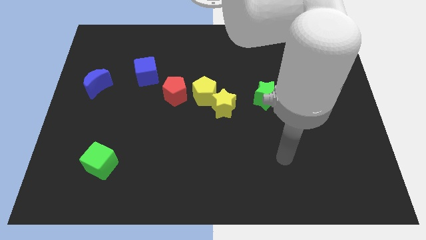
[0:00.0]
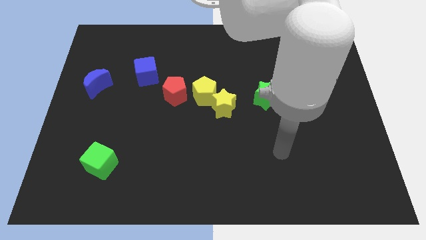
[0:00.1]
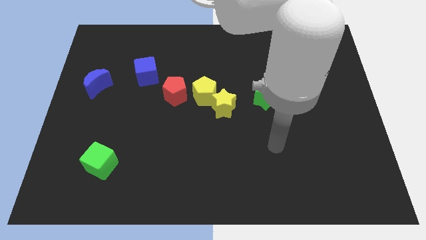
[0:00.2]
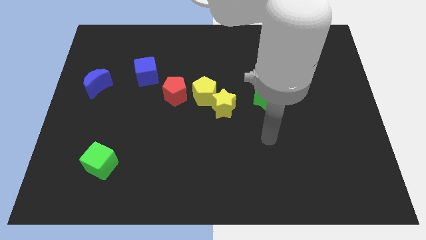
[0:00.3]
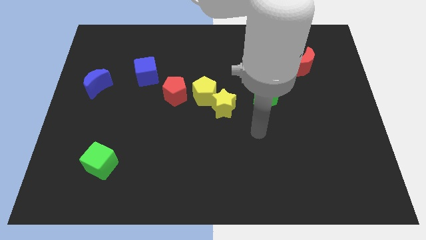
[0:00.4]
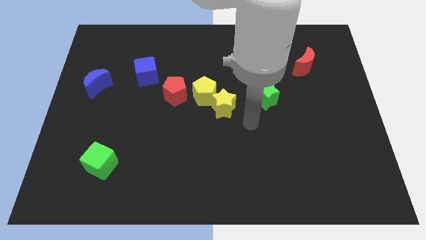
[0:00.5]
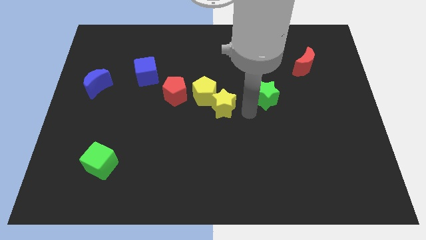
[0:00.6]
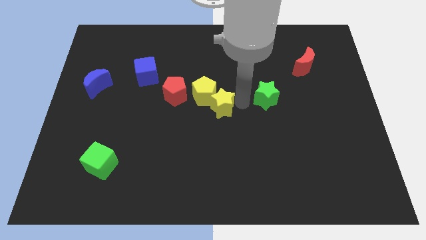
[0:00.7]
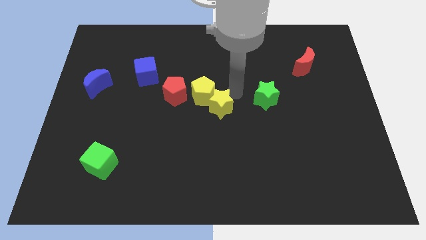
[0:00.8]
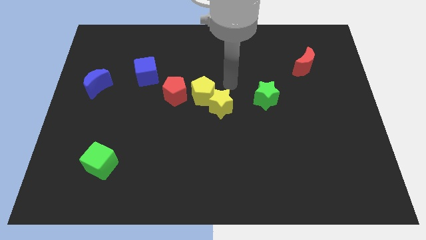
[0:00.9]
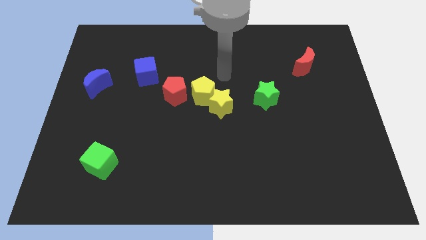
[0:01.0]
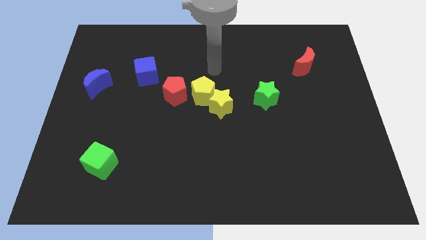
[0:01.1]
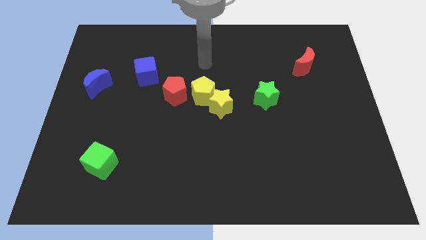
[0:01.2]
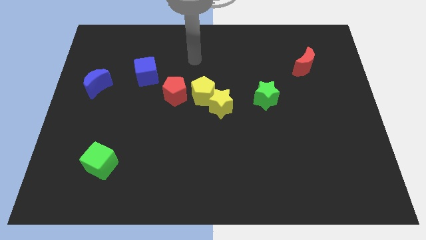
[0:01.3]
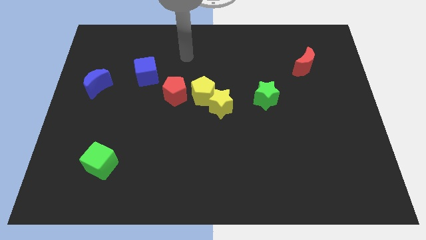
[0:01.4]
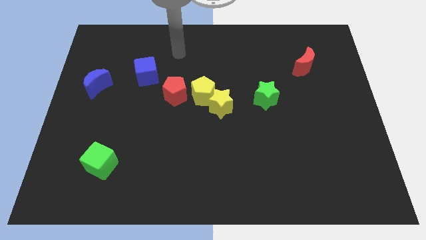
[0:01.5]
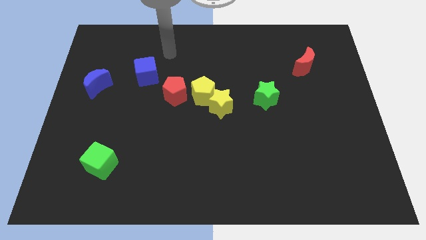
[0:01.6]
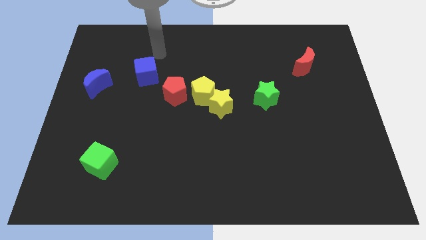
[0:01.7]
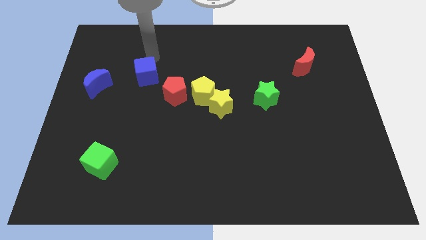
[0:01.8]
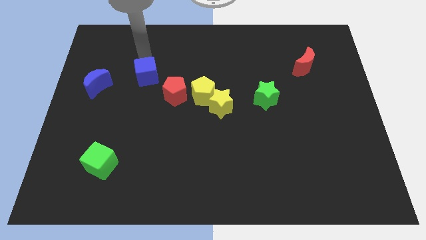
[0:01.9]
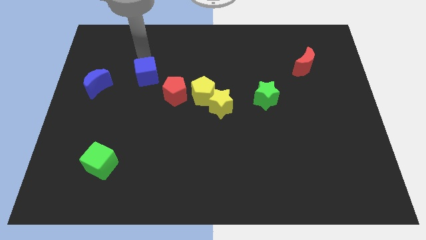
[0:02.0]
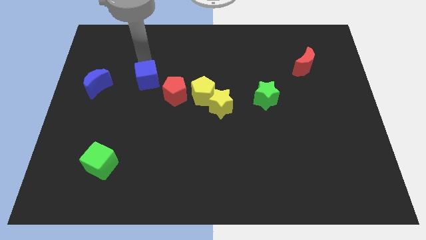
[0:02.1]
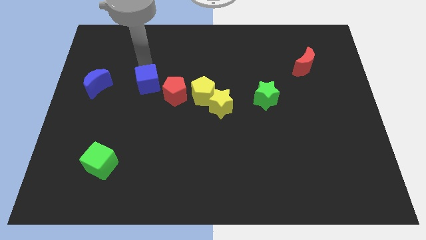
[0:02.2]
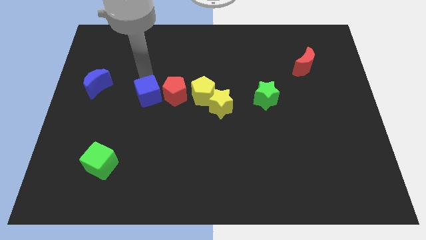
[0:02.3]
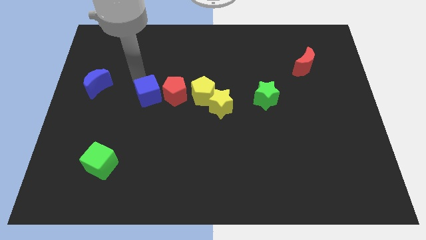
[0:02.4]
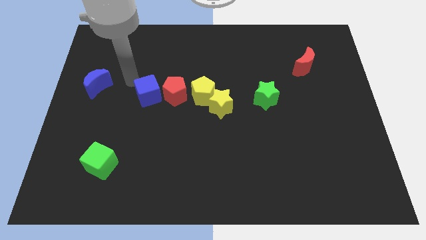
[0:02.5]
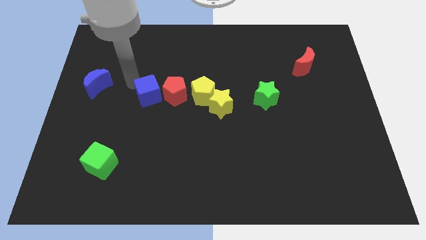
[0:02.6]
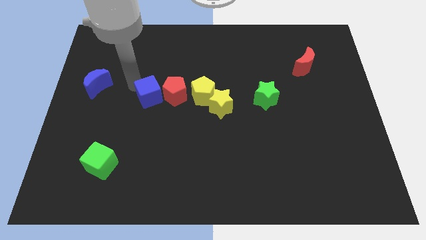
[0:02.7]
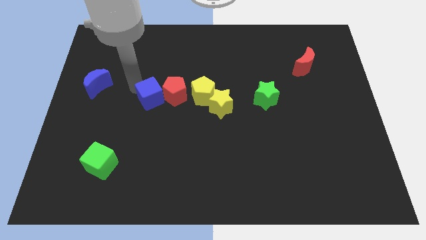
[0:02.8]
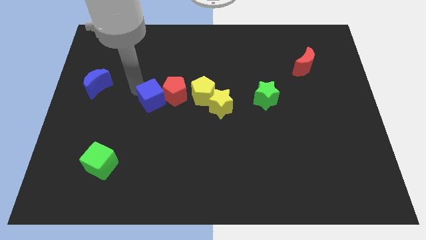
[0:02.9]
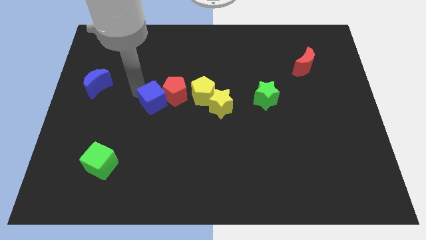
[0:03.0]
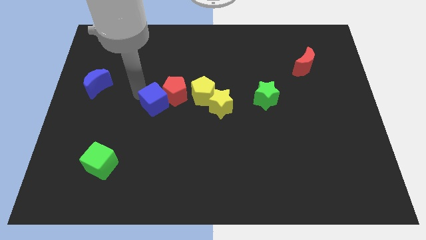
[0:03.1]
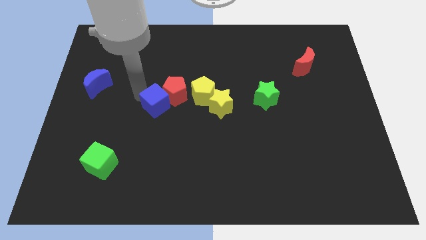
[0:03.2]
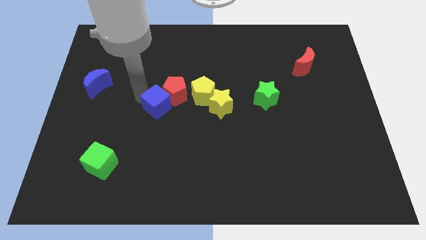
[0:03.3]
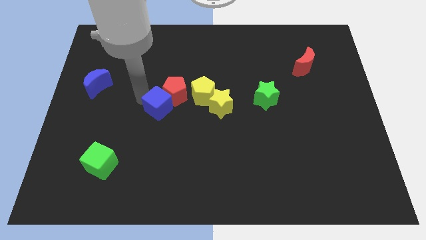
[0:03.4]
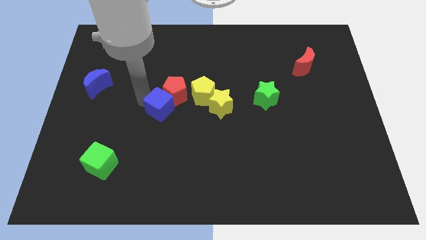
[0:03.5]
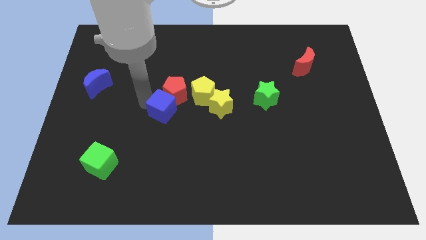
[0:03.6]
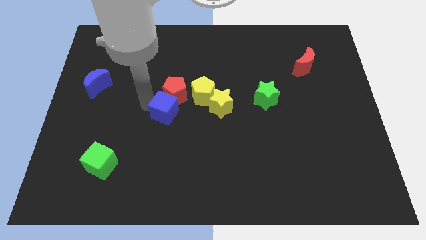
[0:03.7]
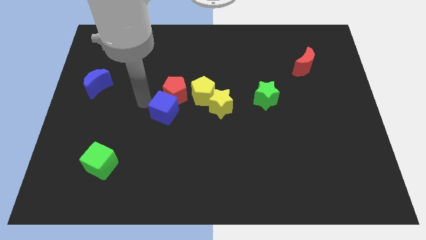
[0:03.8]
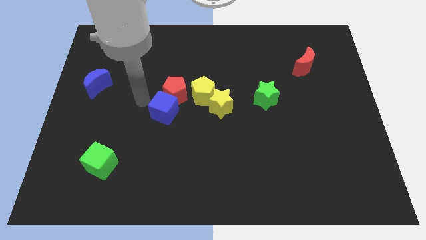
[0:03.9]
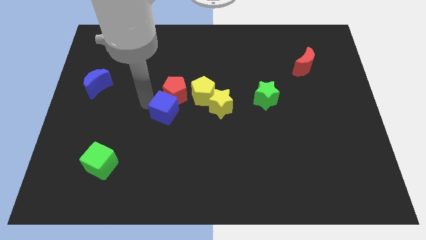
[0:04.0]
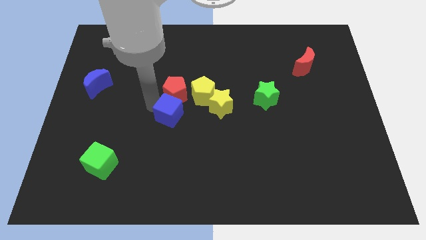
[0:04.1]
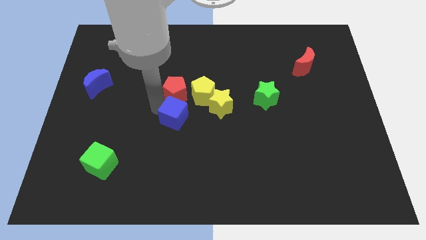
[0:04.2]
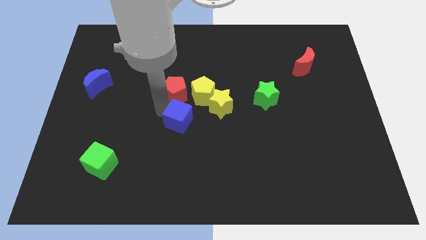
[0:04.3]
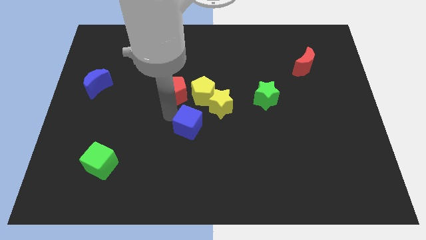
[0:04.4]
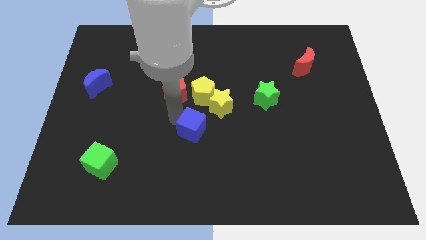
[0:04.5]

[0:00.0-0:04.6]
push the blue cube diagonally downwards and to the right

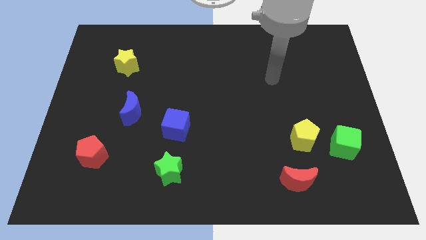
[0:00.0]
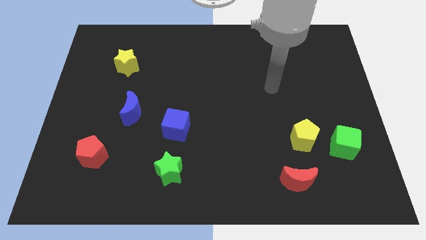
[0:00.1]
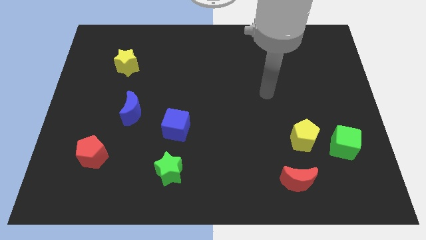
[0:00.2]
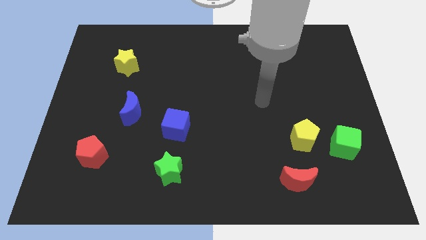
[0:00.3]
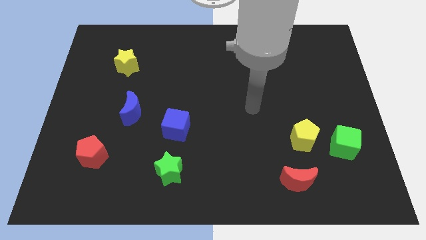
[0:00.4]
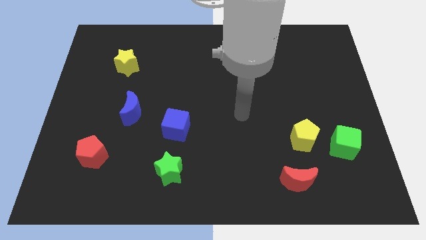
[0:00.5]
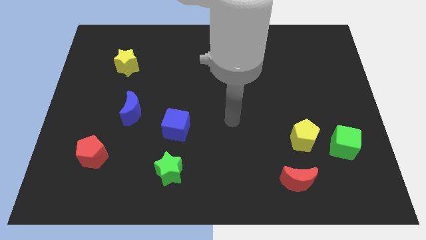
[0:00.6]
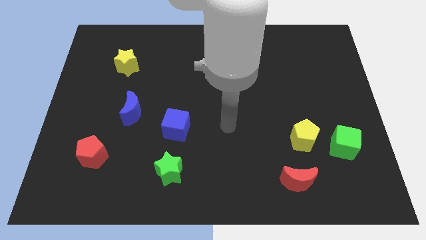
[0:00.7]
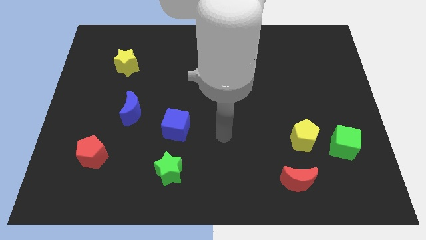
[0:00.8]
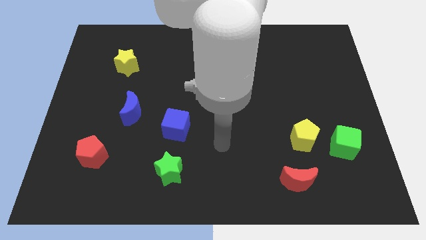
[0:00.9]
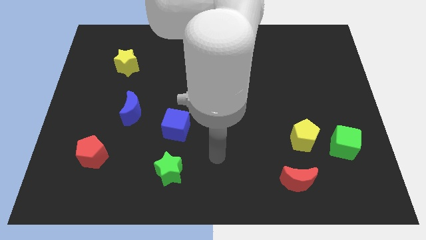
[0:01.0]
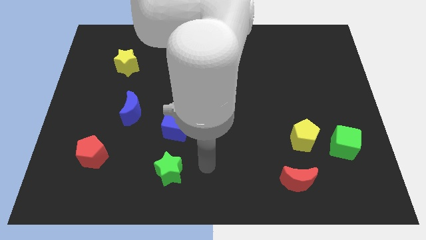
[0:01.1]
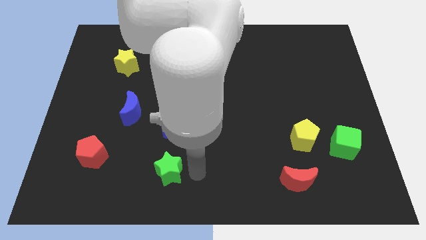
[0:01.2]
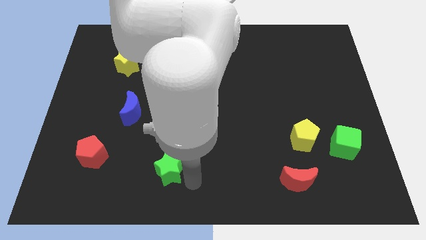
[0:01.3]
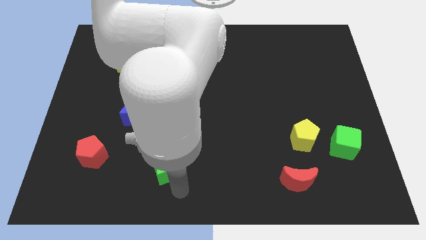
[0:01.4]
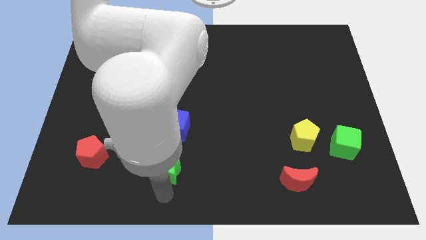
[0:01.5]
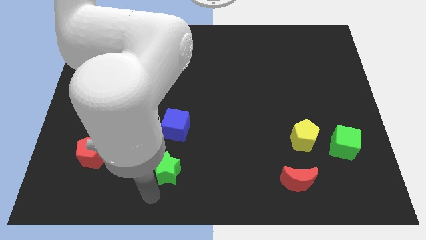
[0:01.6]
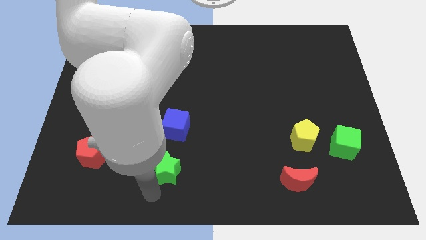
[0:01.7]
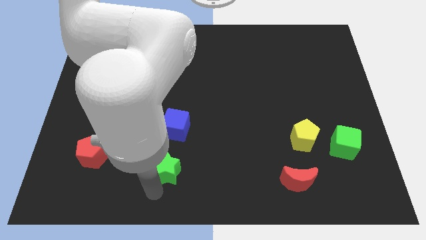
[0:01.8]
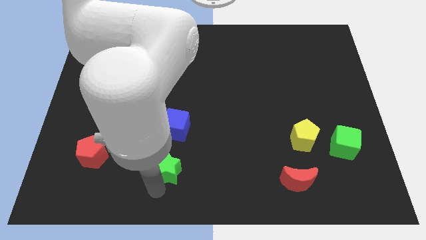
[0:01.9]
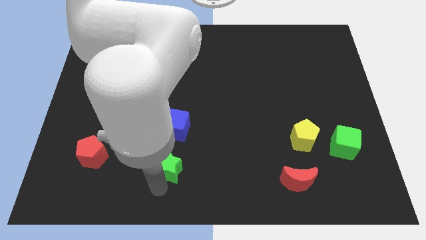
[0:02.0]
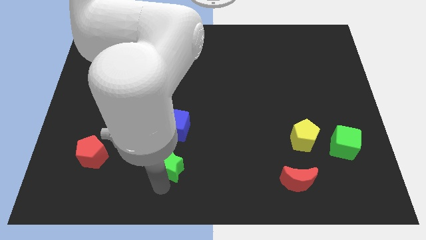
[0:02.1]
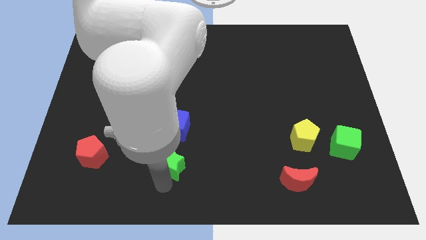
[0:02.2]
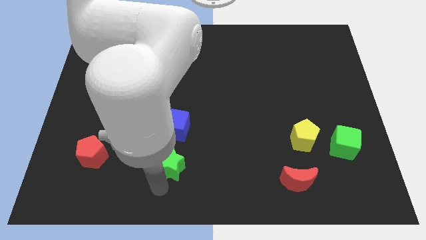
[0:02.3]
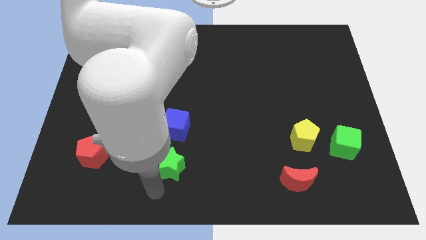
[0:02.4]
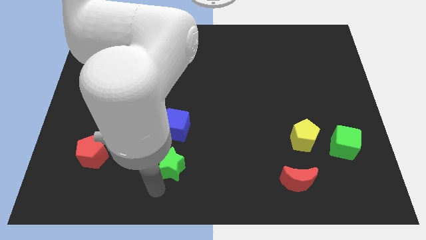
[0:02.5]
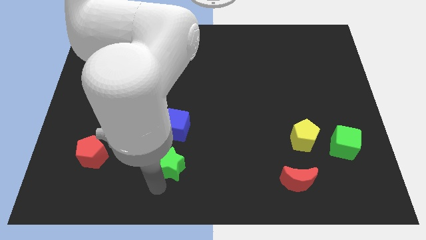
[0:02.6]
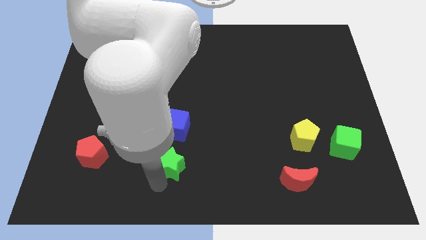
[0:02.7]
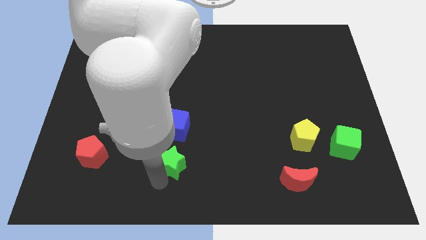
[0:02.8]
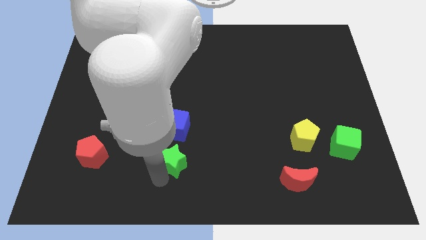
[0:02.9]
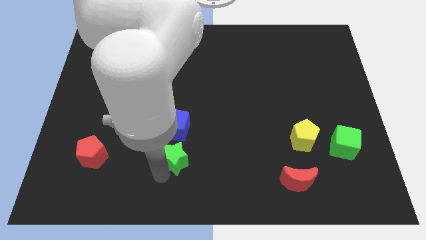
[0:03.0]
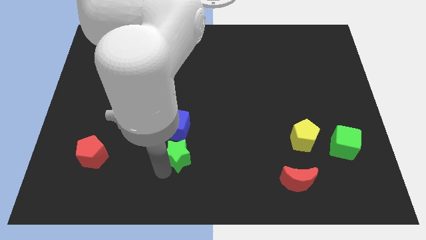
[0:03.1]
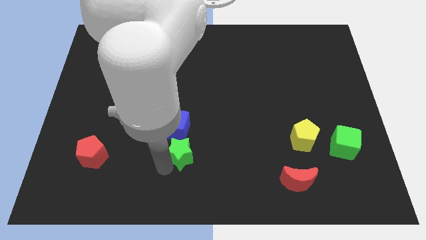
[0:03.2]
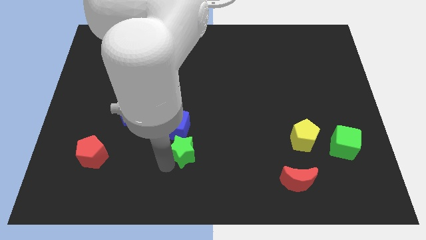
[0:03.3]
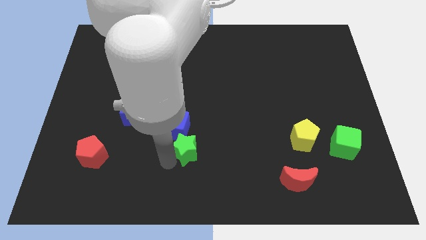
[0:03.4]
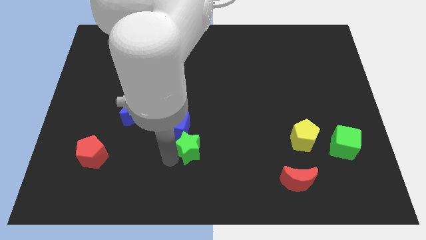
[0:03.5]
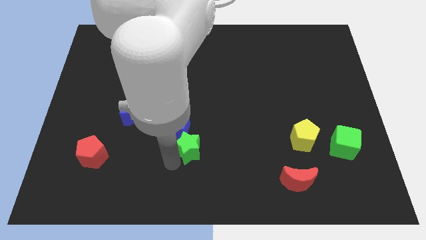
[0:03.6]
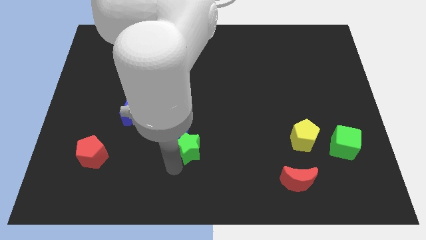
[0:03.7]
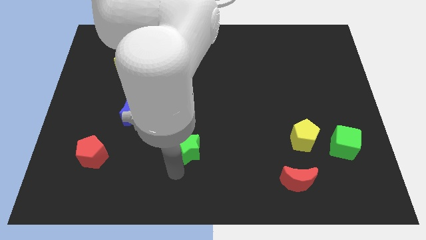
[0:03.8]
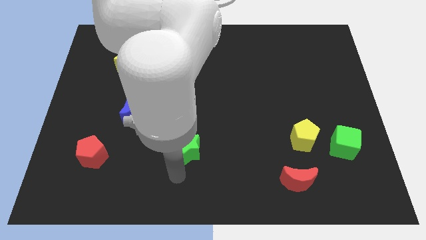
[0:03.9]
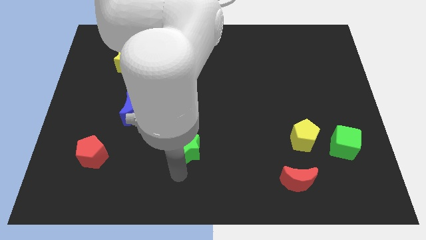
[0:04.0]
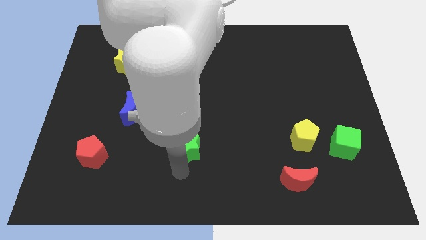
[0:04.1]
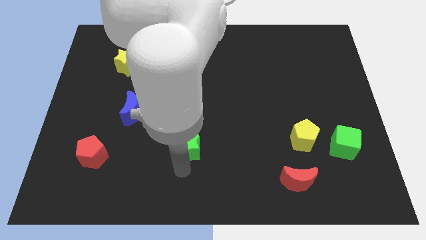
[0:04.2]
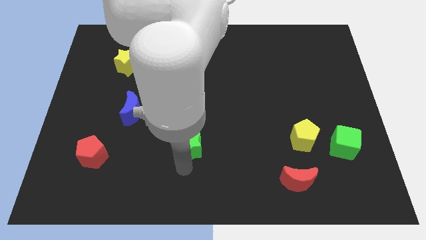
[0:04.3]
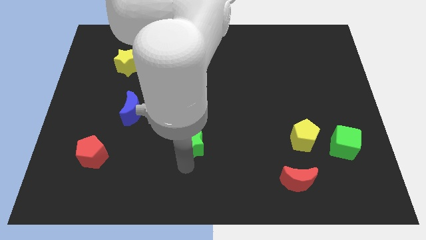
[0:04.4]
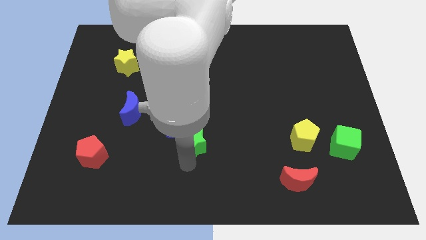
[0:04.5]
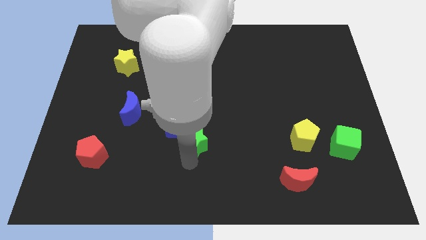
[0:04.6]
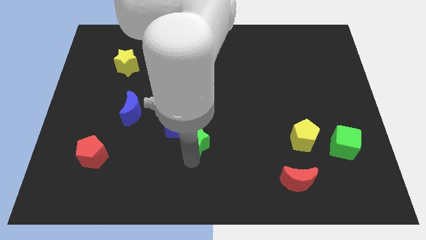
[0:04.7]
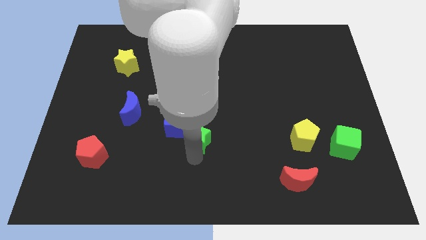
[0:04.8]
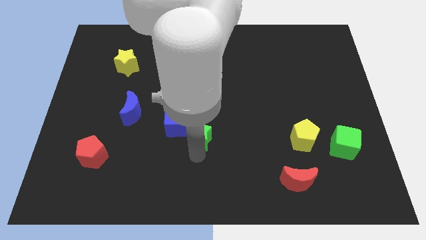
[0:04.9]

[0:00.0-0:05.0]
push the green star up a bit
